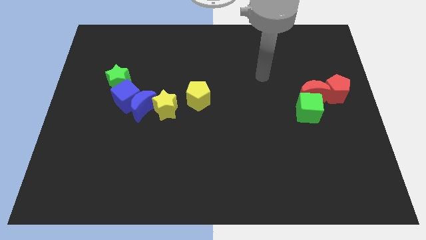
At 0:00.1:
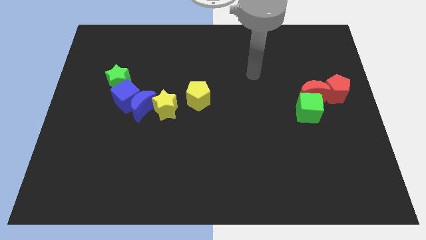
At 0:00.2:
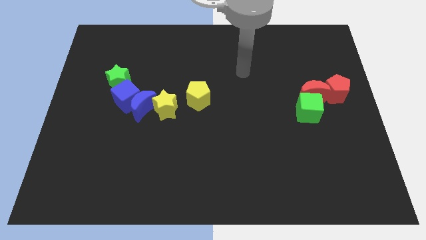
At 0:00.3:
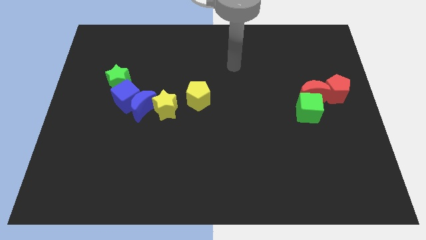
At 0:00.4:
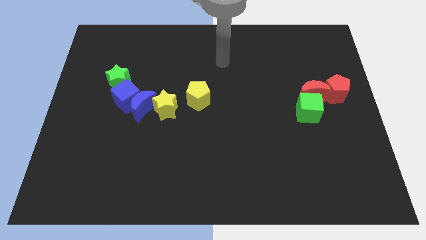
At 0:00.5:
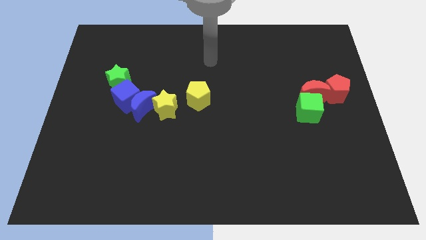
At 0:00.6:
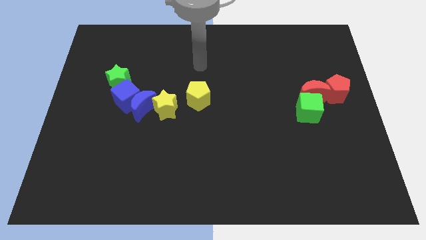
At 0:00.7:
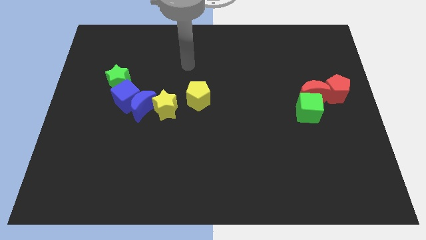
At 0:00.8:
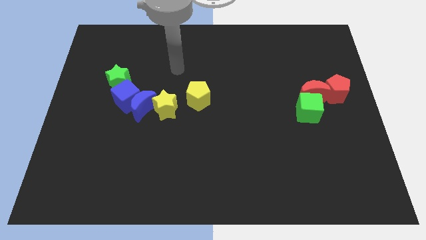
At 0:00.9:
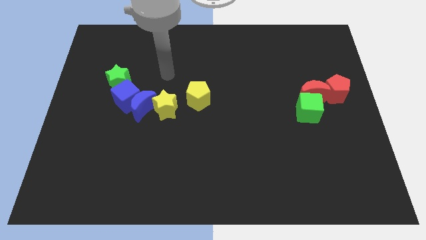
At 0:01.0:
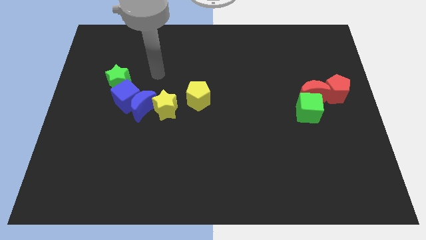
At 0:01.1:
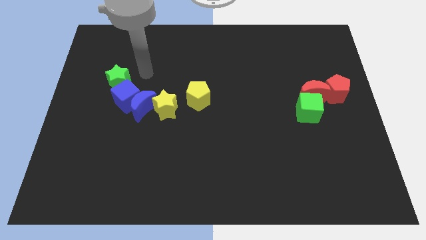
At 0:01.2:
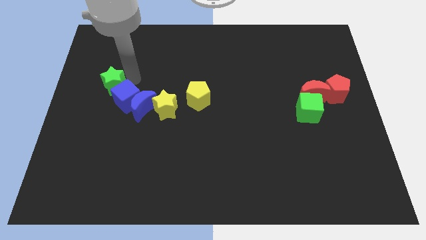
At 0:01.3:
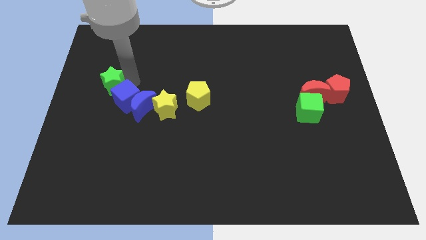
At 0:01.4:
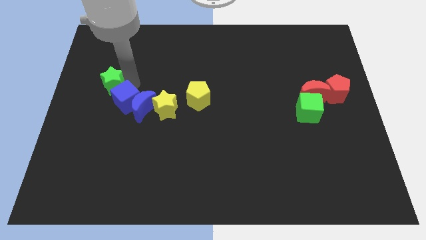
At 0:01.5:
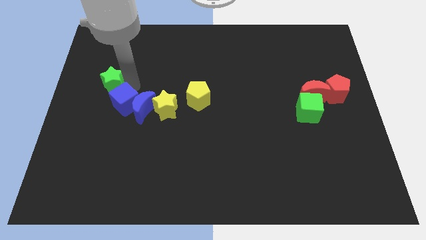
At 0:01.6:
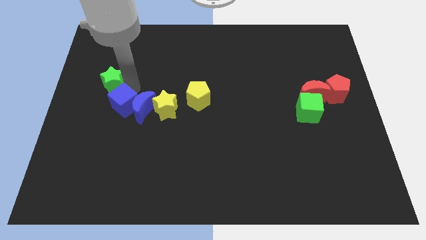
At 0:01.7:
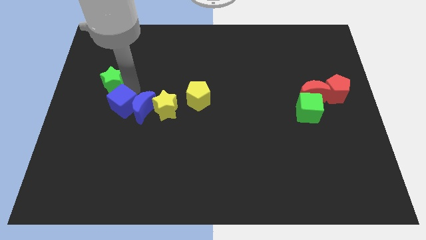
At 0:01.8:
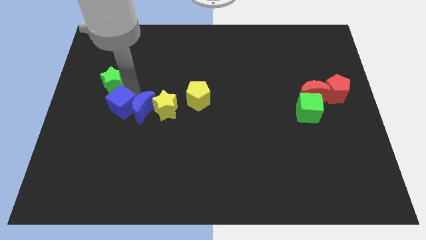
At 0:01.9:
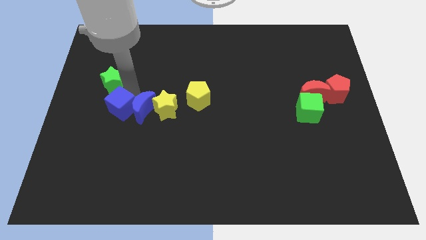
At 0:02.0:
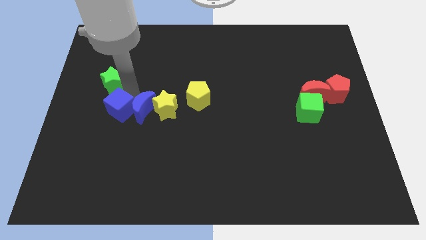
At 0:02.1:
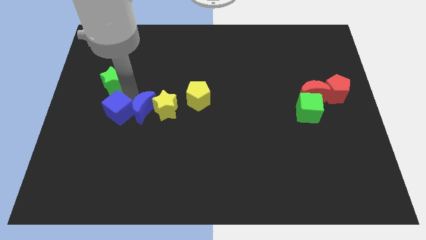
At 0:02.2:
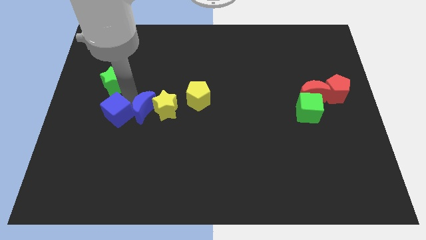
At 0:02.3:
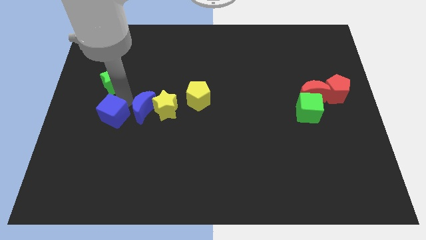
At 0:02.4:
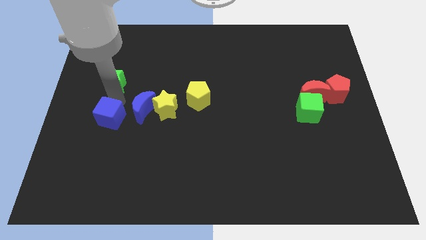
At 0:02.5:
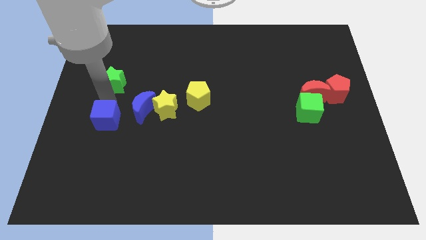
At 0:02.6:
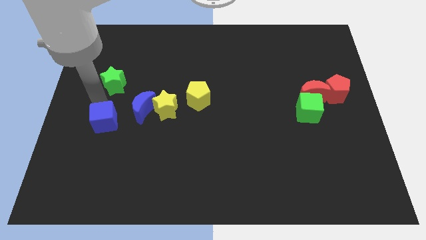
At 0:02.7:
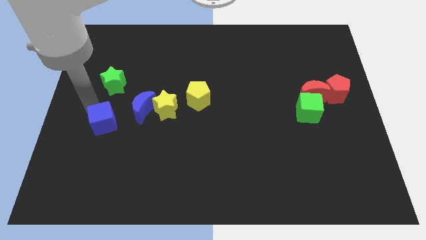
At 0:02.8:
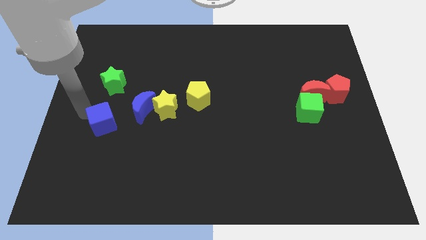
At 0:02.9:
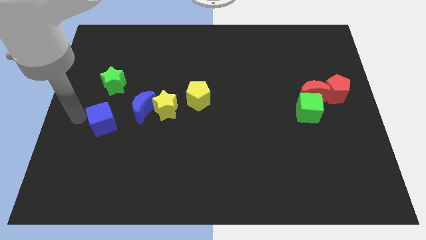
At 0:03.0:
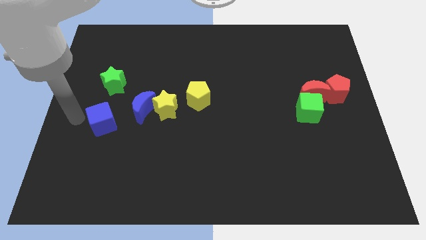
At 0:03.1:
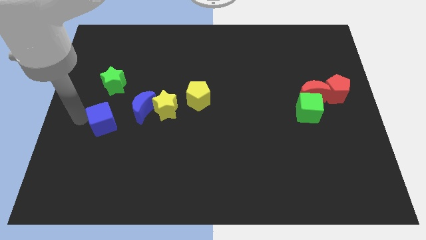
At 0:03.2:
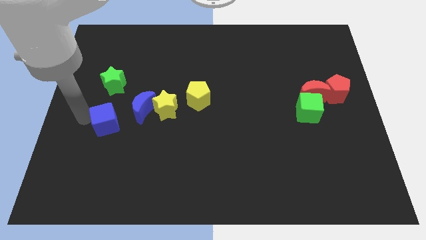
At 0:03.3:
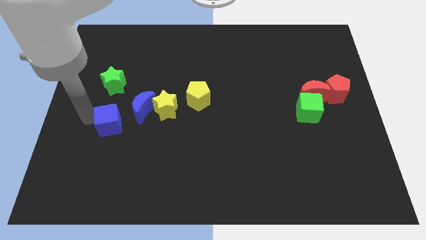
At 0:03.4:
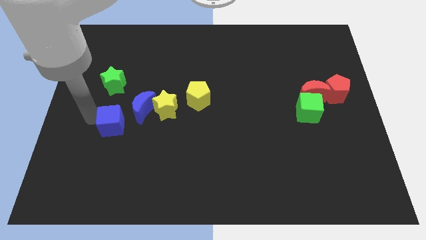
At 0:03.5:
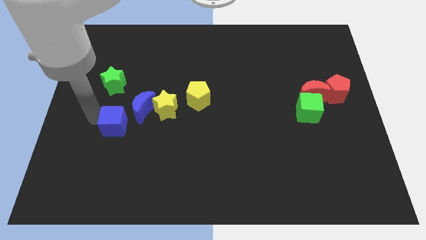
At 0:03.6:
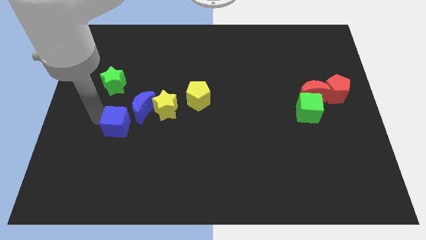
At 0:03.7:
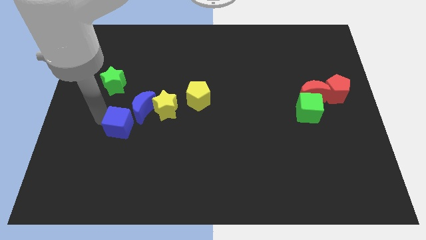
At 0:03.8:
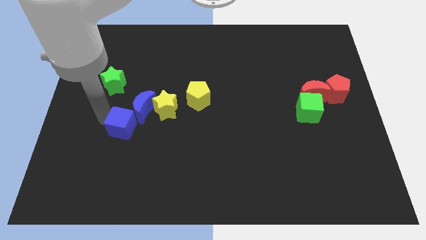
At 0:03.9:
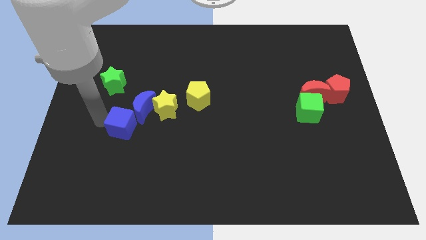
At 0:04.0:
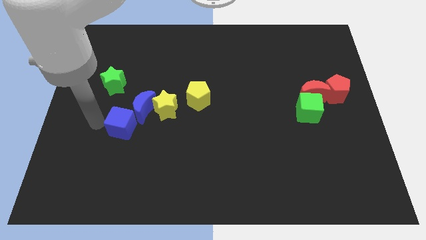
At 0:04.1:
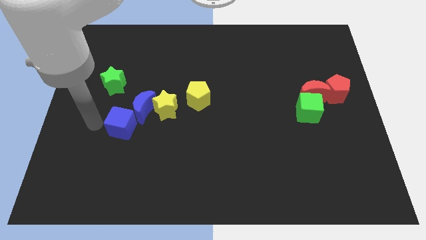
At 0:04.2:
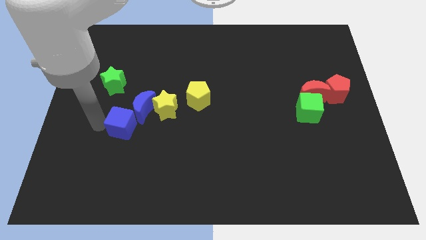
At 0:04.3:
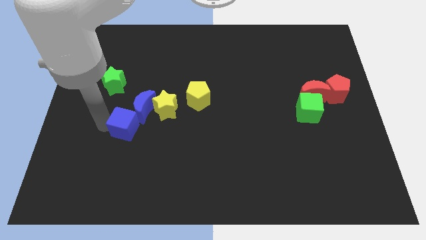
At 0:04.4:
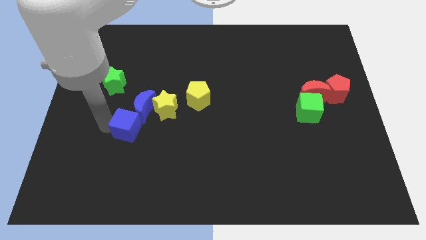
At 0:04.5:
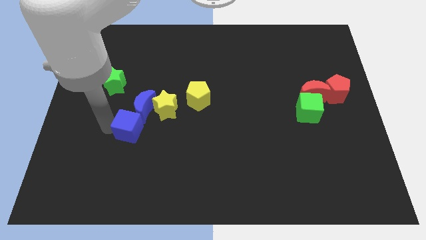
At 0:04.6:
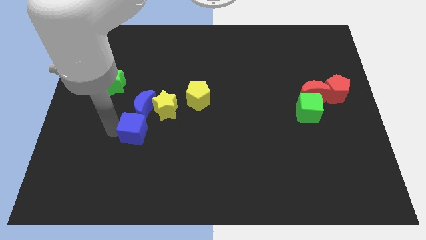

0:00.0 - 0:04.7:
slide the blue cube downwards and right diagonally slightly

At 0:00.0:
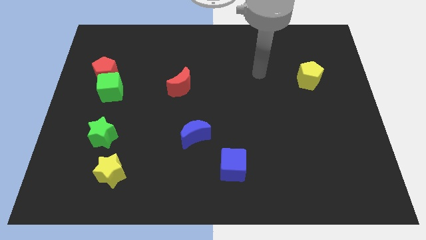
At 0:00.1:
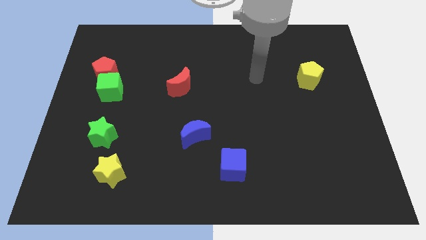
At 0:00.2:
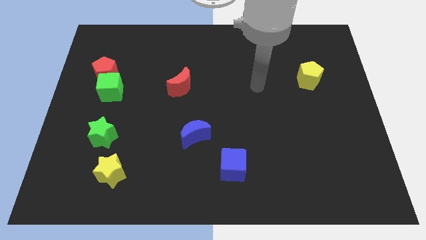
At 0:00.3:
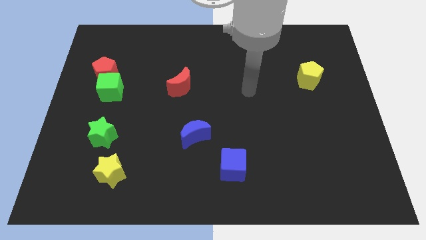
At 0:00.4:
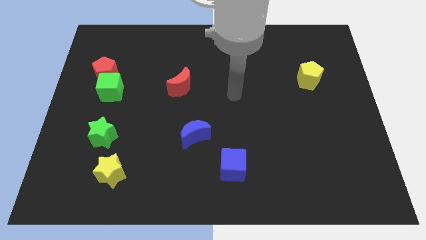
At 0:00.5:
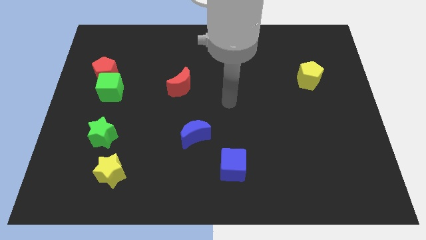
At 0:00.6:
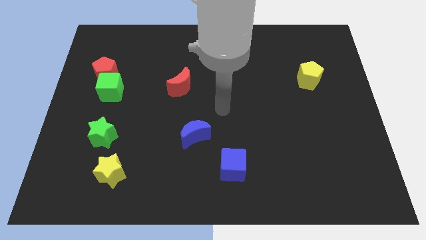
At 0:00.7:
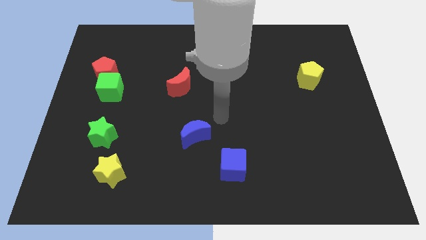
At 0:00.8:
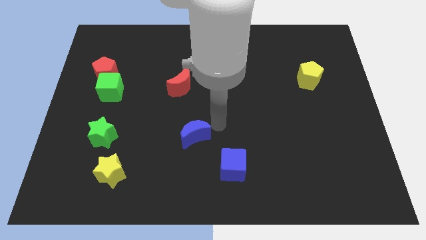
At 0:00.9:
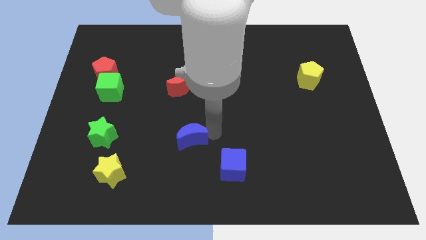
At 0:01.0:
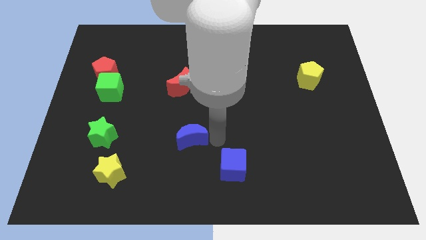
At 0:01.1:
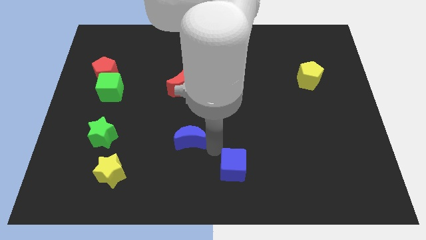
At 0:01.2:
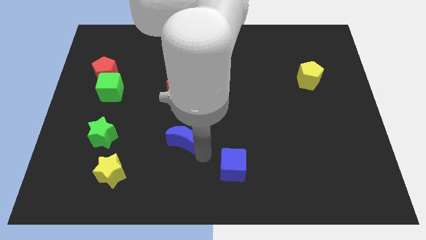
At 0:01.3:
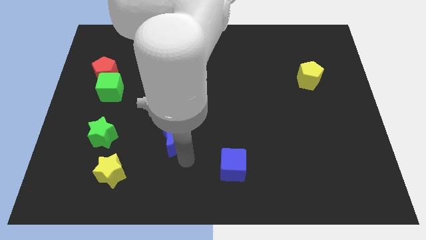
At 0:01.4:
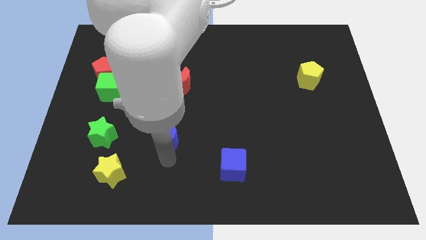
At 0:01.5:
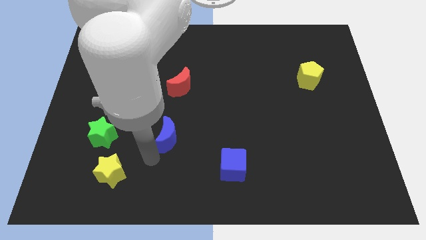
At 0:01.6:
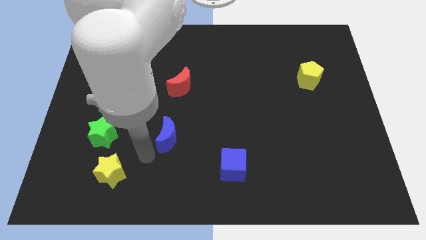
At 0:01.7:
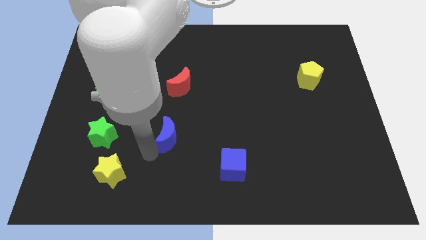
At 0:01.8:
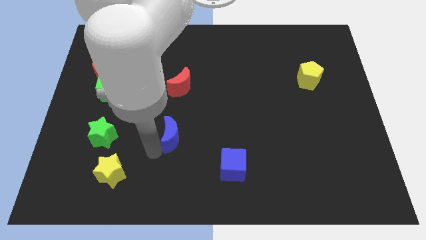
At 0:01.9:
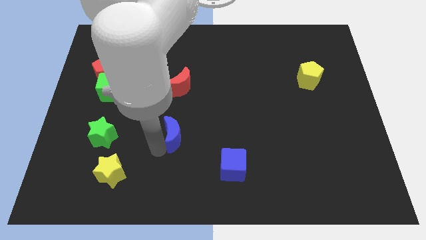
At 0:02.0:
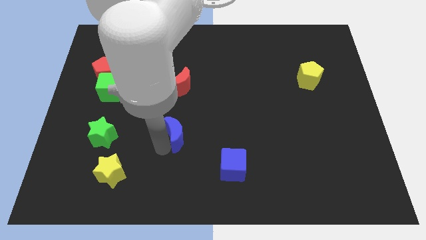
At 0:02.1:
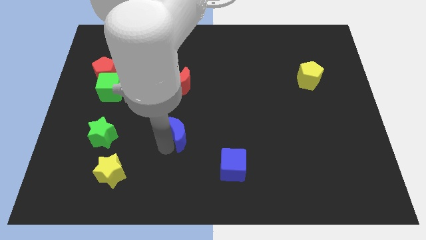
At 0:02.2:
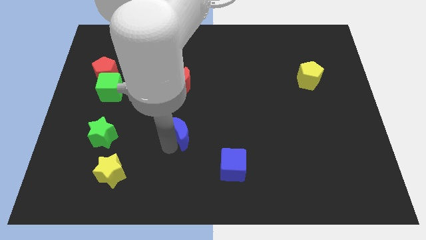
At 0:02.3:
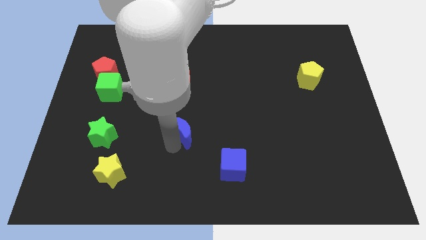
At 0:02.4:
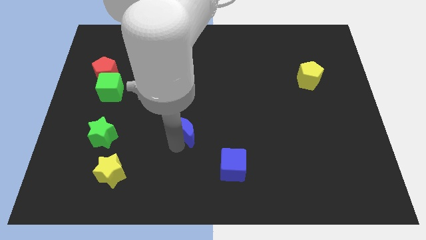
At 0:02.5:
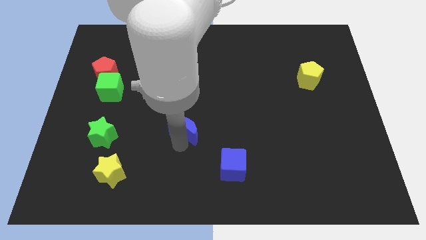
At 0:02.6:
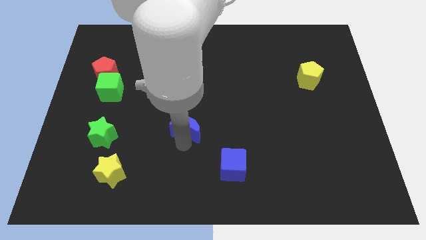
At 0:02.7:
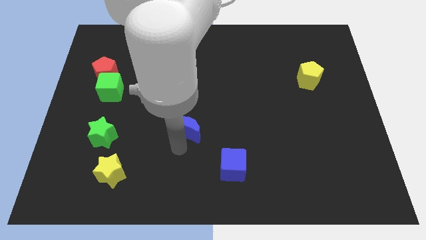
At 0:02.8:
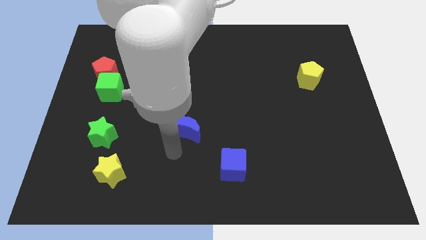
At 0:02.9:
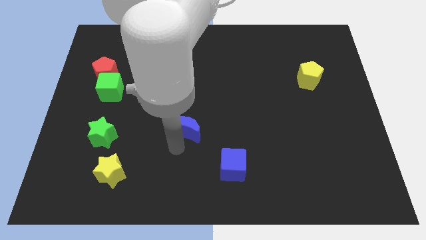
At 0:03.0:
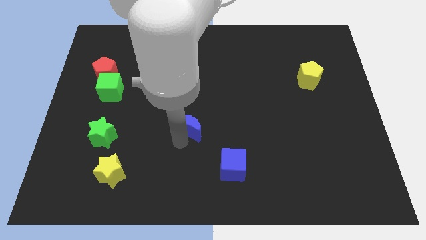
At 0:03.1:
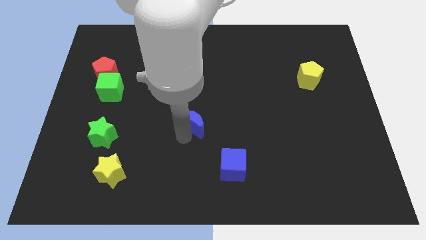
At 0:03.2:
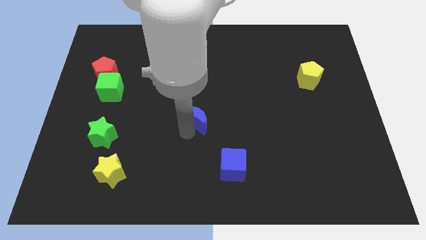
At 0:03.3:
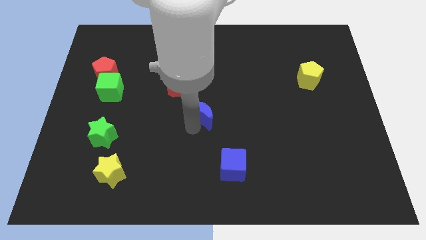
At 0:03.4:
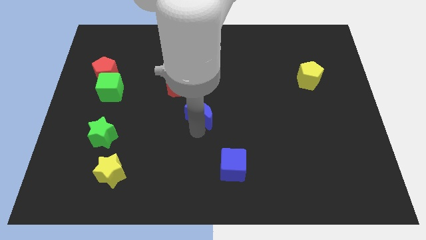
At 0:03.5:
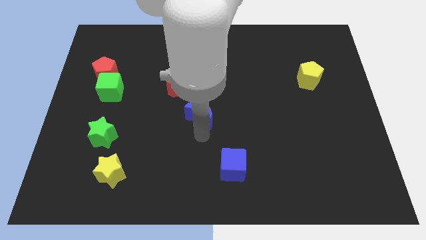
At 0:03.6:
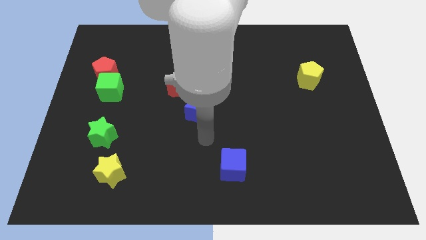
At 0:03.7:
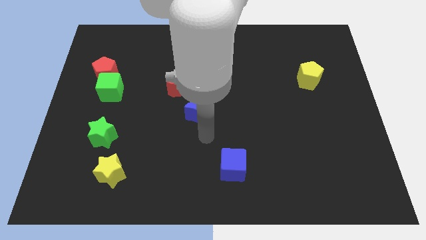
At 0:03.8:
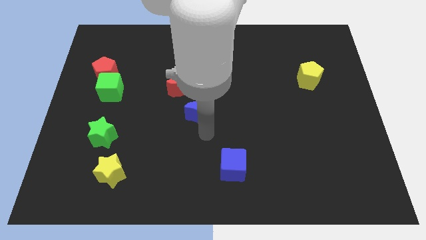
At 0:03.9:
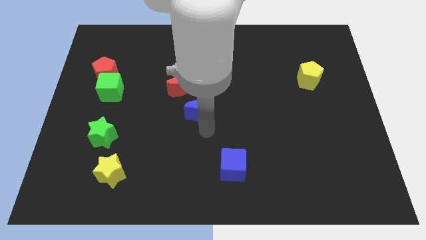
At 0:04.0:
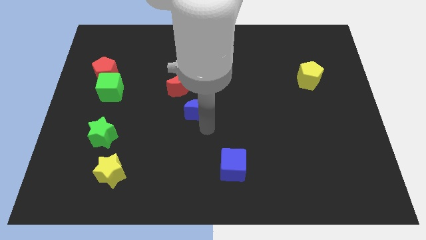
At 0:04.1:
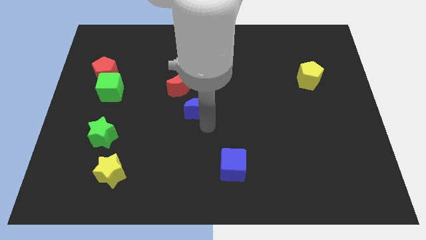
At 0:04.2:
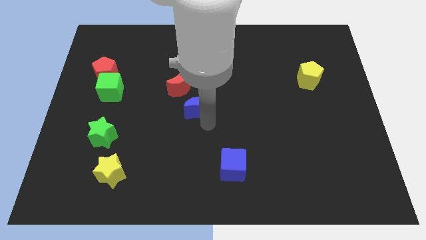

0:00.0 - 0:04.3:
move the blue moon upwards a bit
